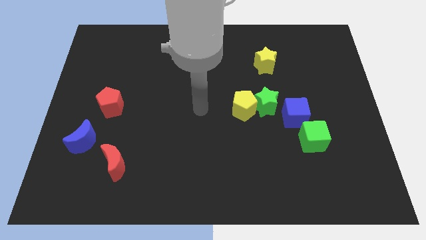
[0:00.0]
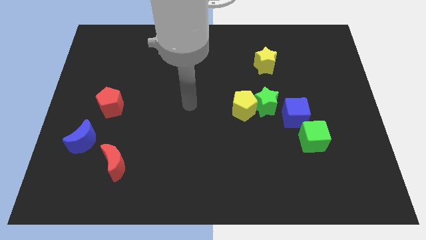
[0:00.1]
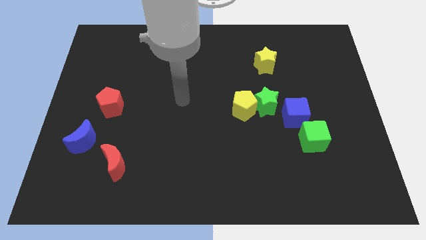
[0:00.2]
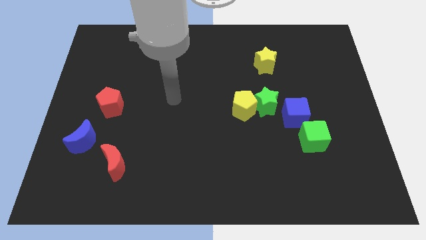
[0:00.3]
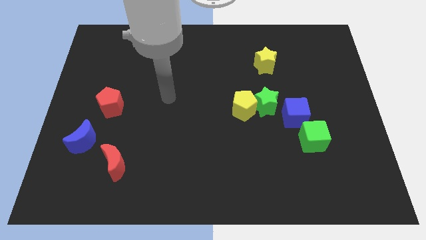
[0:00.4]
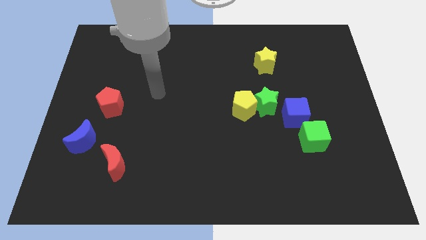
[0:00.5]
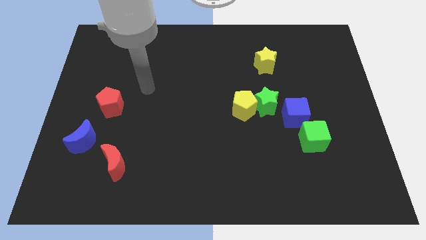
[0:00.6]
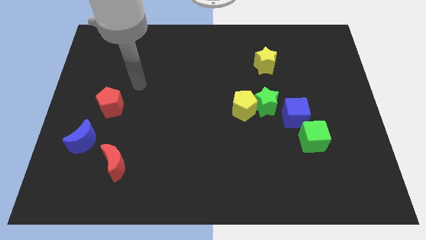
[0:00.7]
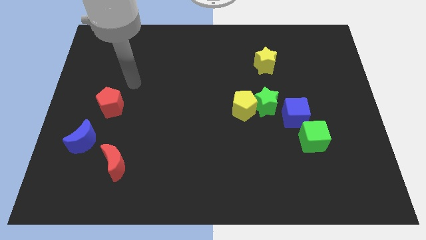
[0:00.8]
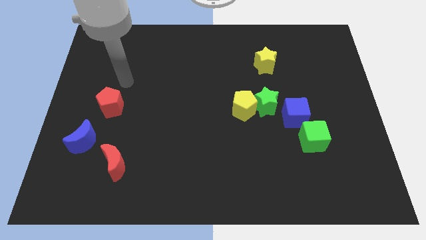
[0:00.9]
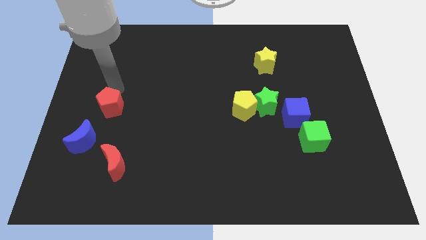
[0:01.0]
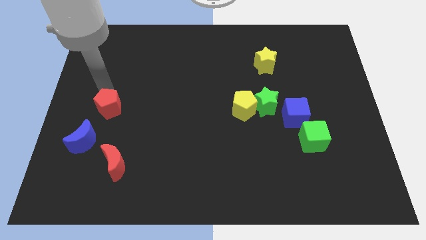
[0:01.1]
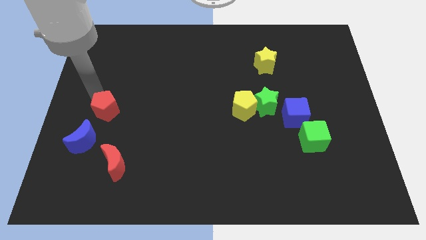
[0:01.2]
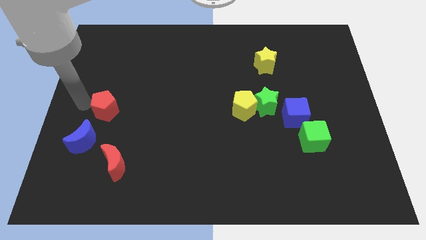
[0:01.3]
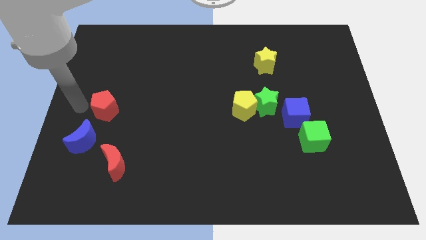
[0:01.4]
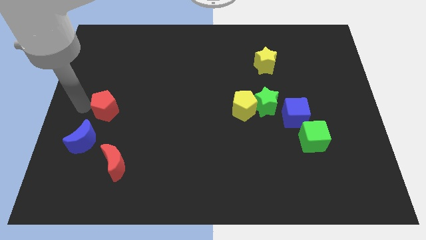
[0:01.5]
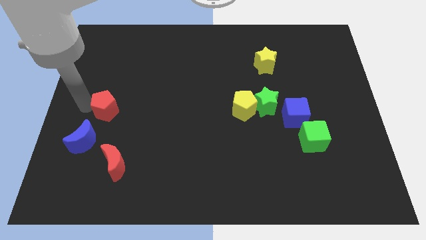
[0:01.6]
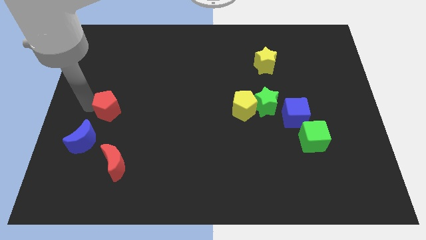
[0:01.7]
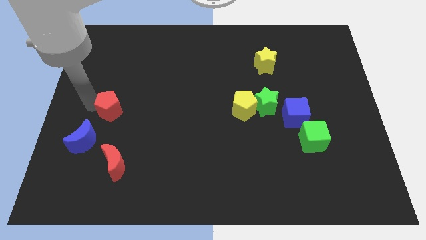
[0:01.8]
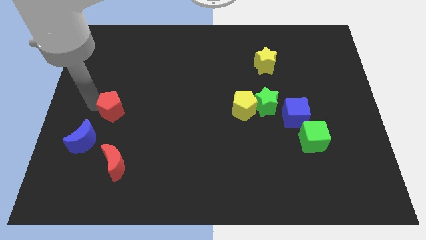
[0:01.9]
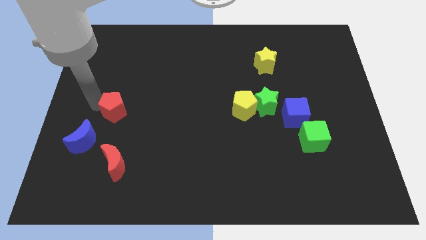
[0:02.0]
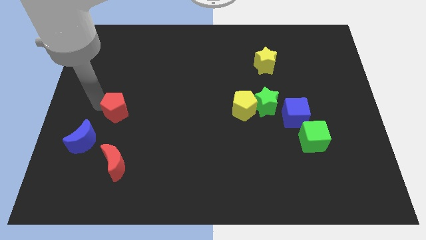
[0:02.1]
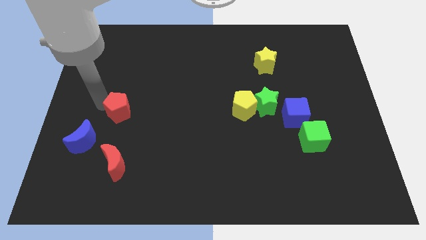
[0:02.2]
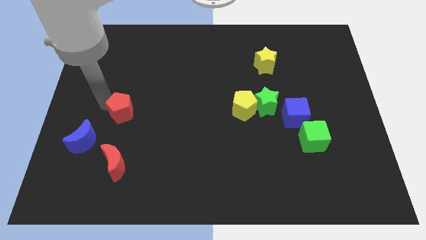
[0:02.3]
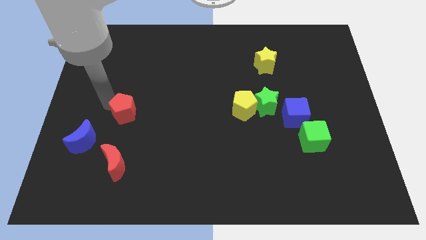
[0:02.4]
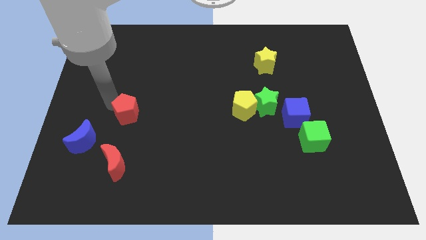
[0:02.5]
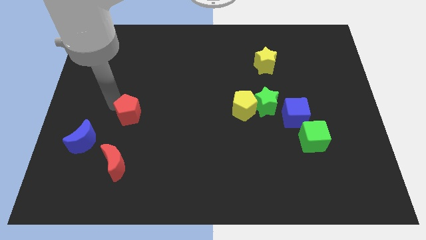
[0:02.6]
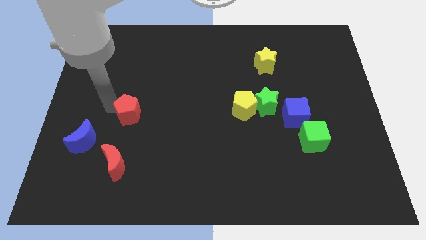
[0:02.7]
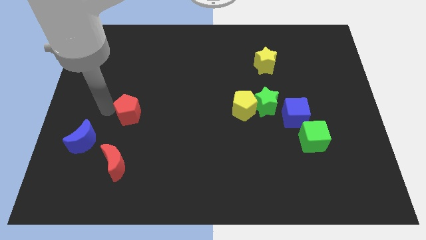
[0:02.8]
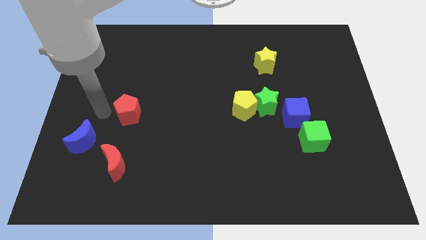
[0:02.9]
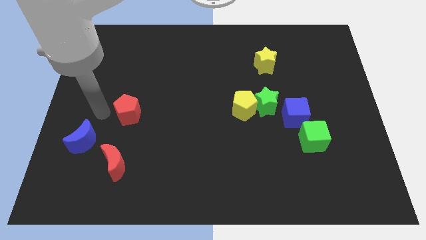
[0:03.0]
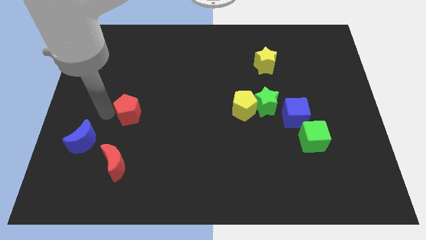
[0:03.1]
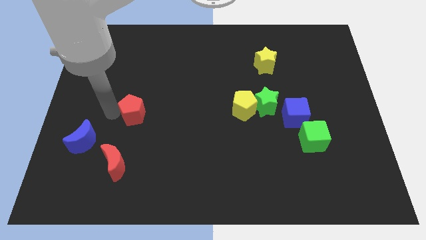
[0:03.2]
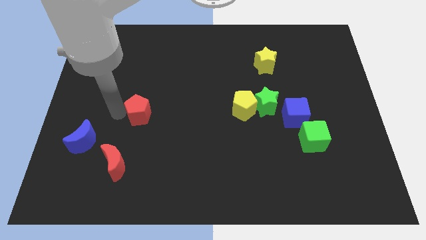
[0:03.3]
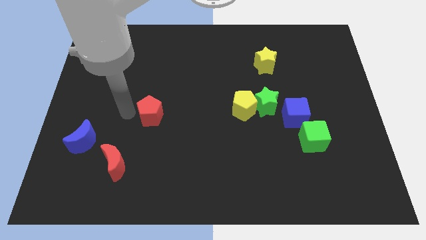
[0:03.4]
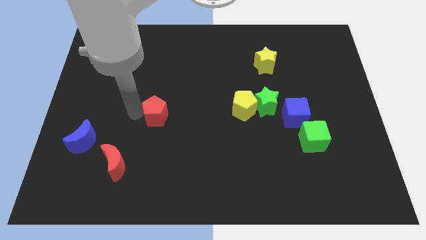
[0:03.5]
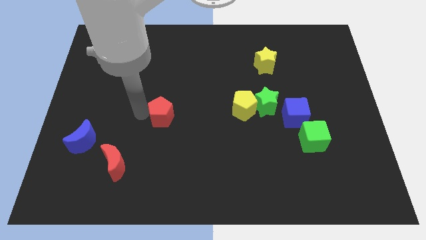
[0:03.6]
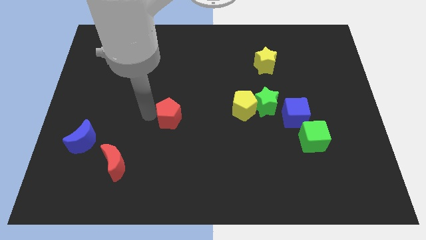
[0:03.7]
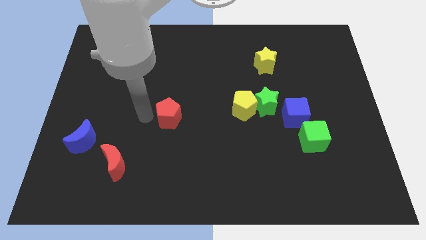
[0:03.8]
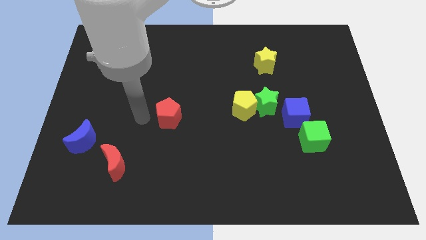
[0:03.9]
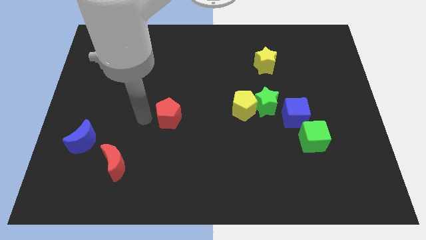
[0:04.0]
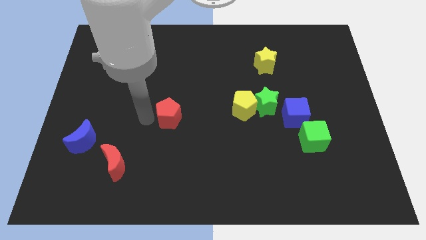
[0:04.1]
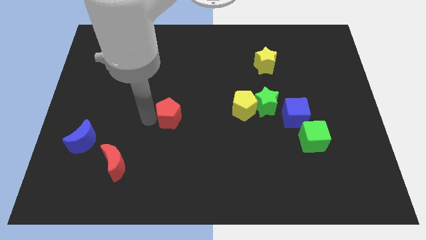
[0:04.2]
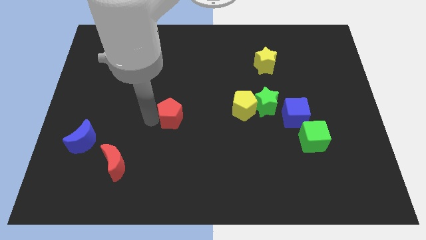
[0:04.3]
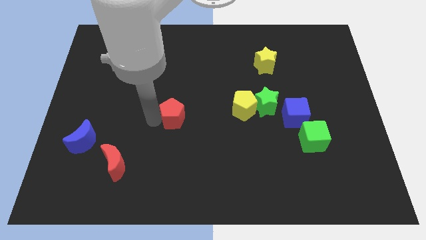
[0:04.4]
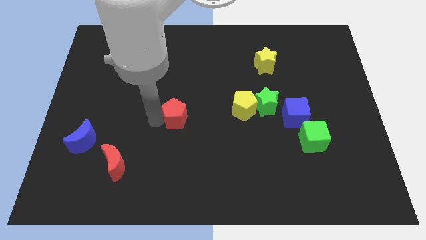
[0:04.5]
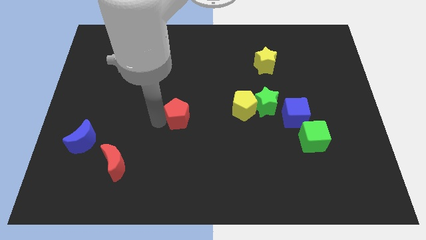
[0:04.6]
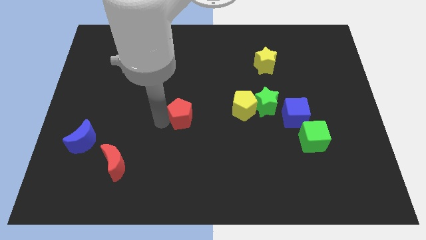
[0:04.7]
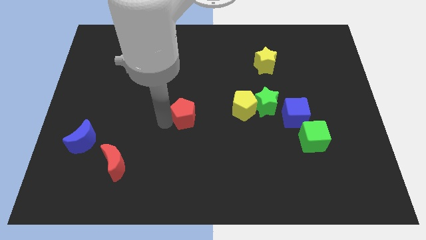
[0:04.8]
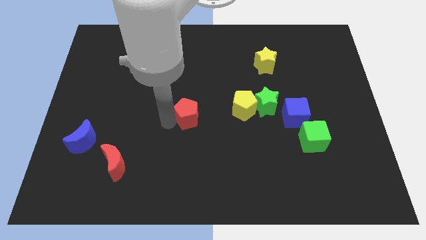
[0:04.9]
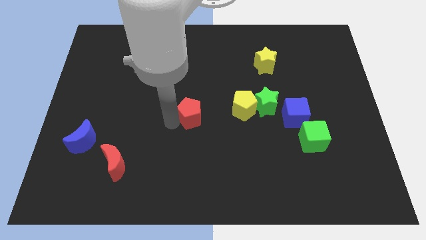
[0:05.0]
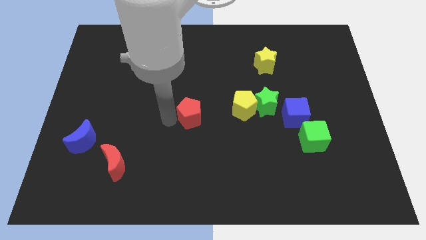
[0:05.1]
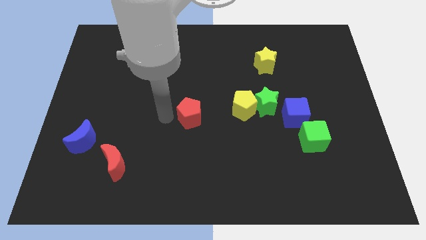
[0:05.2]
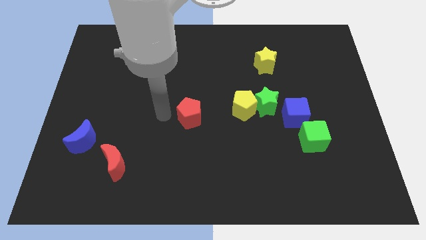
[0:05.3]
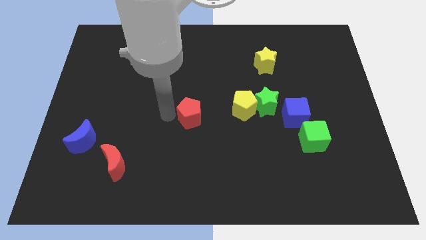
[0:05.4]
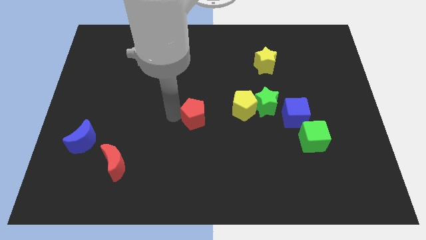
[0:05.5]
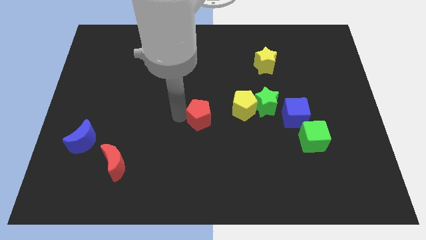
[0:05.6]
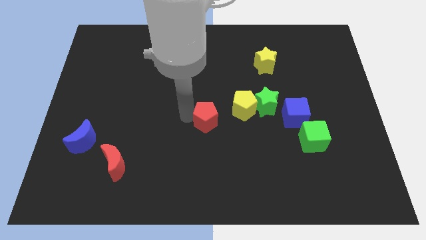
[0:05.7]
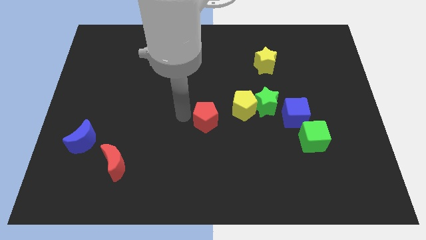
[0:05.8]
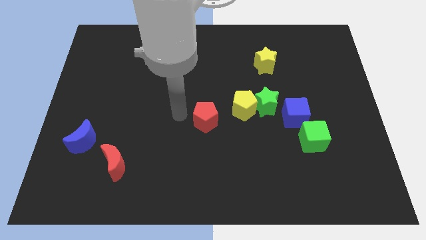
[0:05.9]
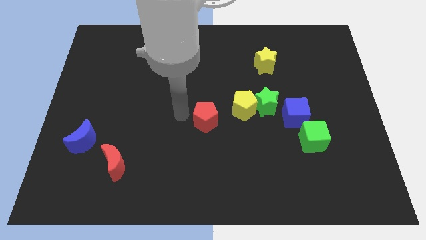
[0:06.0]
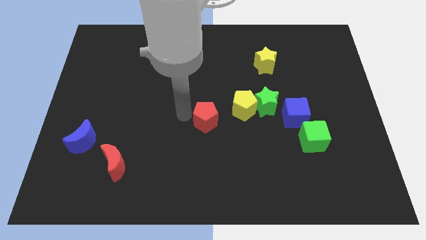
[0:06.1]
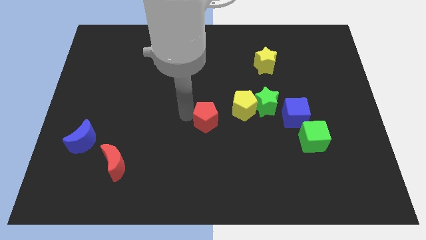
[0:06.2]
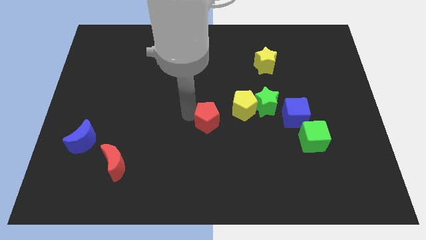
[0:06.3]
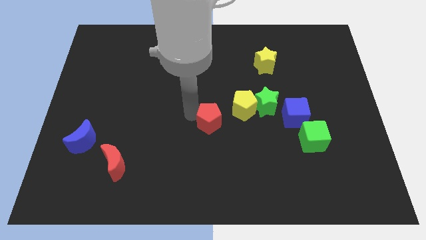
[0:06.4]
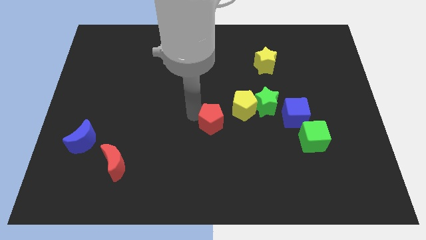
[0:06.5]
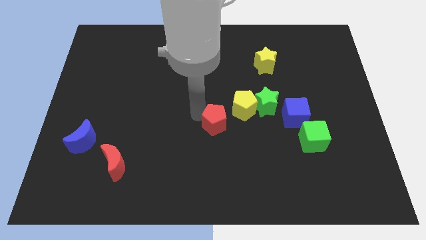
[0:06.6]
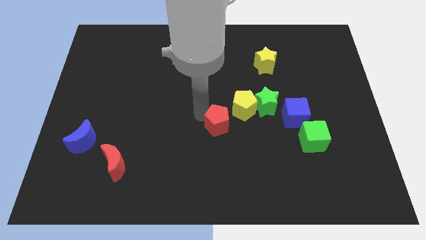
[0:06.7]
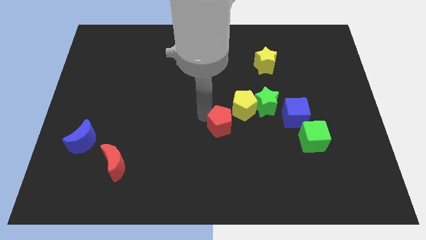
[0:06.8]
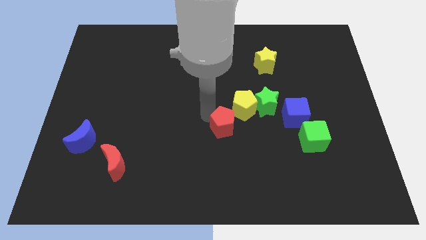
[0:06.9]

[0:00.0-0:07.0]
put the red pentagon to the bottom left side of the green star

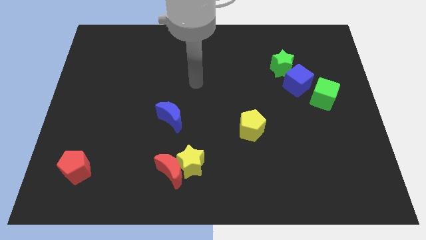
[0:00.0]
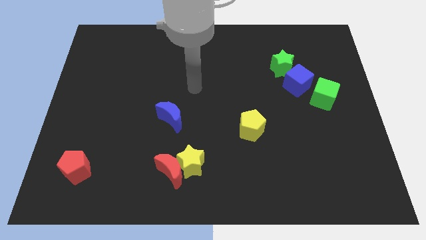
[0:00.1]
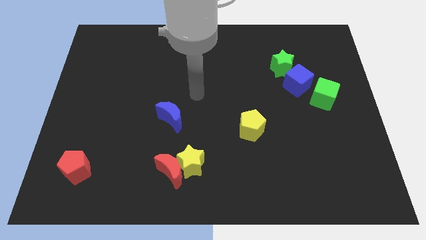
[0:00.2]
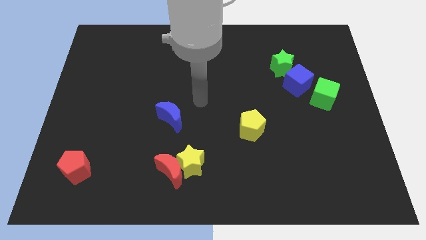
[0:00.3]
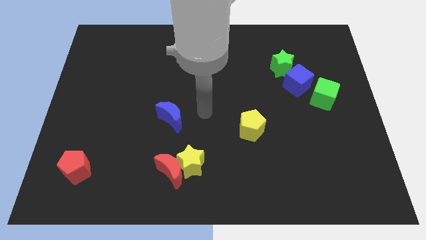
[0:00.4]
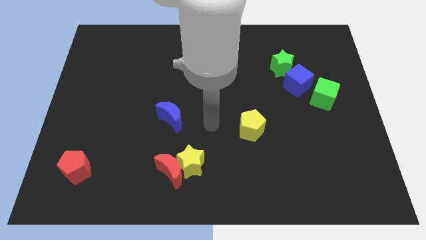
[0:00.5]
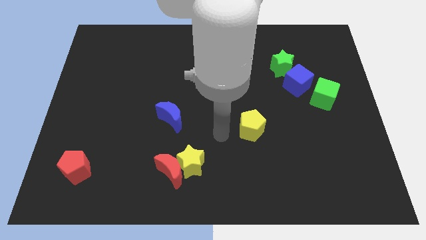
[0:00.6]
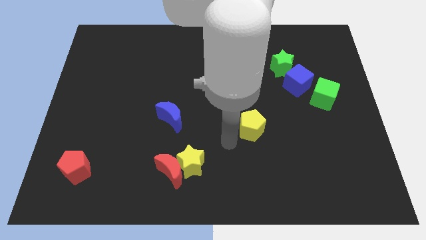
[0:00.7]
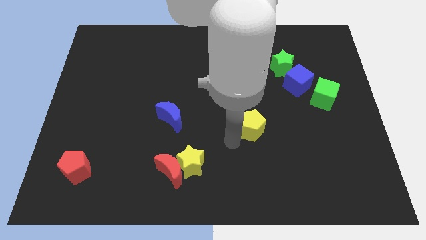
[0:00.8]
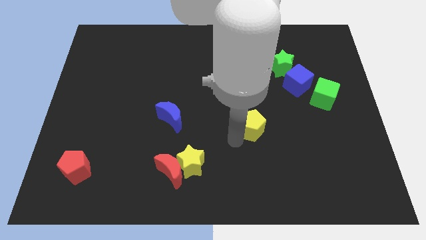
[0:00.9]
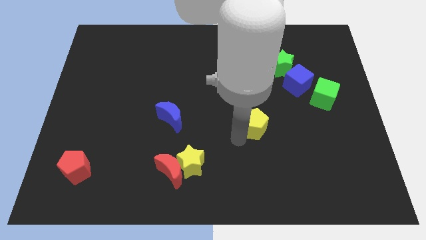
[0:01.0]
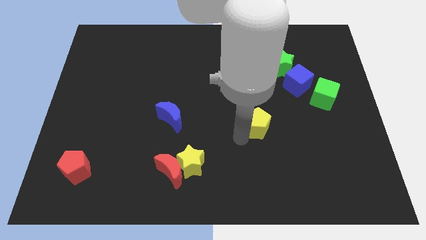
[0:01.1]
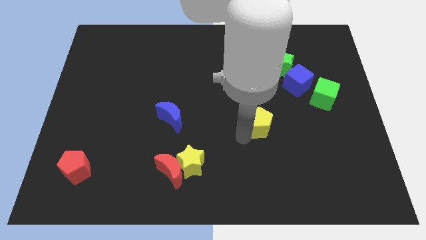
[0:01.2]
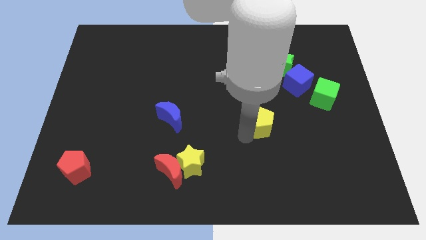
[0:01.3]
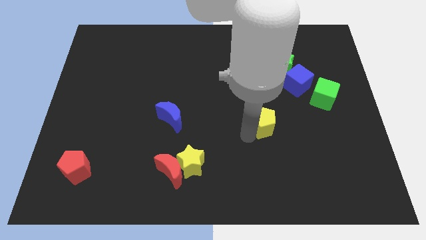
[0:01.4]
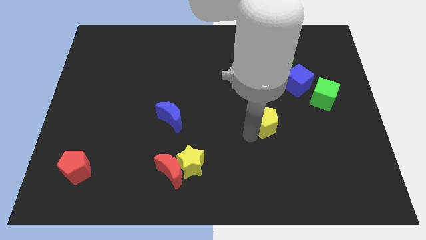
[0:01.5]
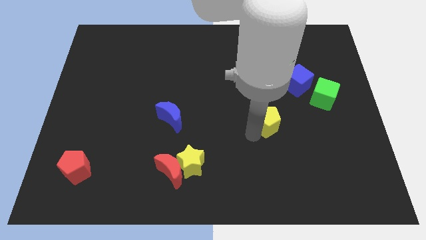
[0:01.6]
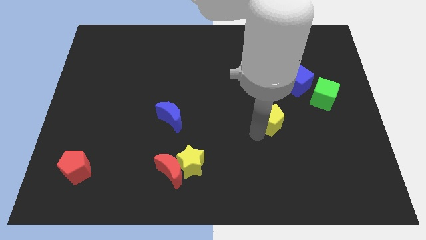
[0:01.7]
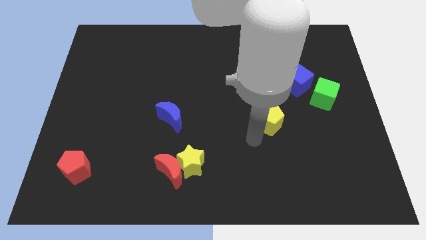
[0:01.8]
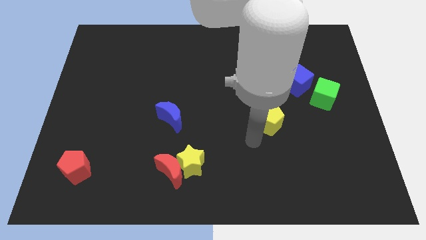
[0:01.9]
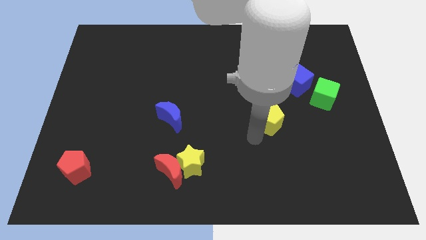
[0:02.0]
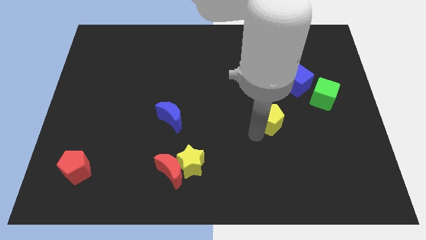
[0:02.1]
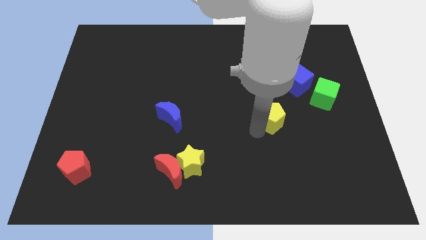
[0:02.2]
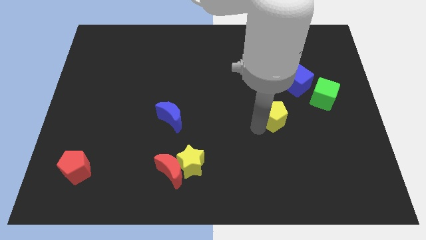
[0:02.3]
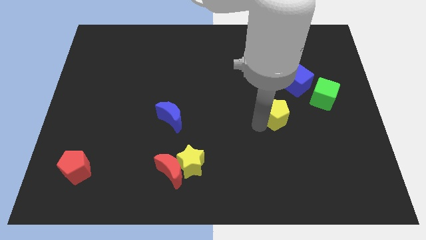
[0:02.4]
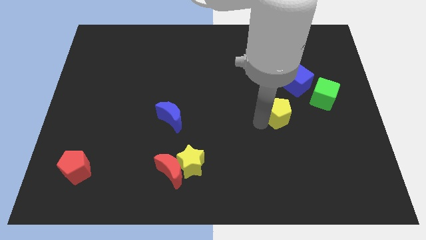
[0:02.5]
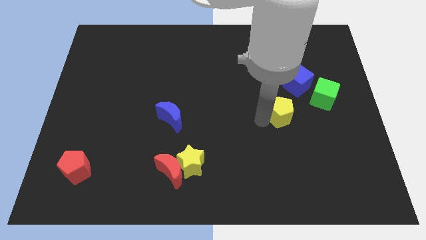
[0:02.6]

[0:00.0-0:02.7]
push the yellow pentagon below the green star
